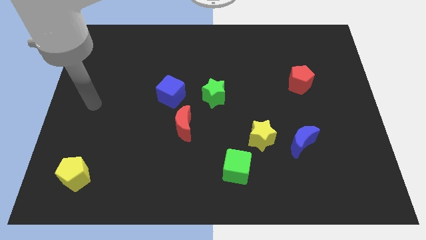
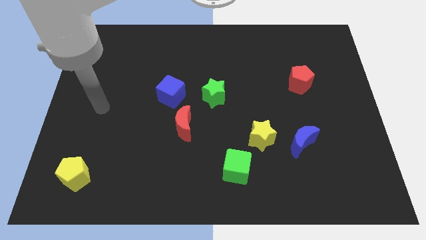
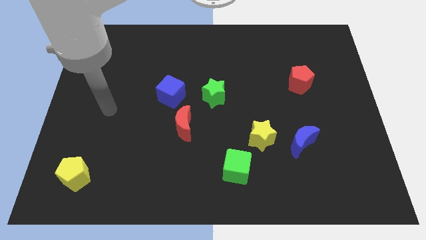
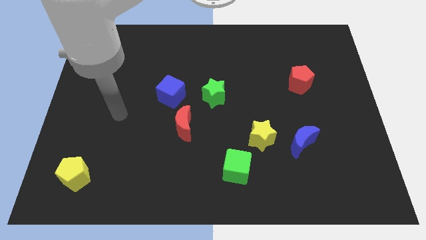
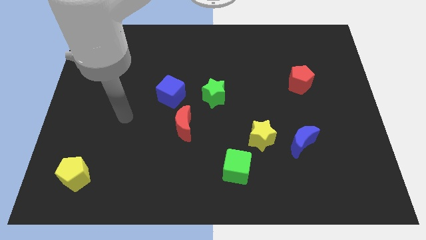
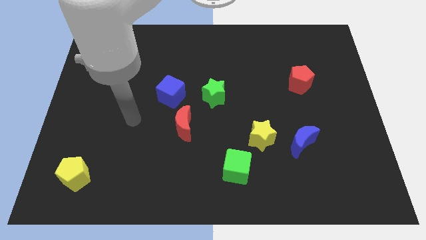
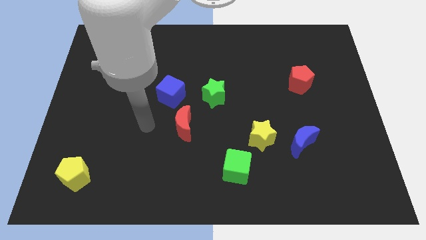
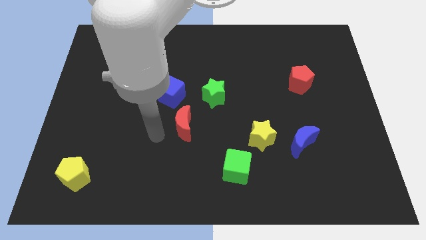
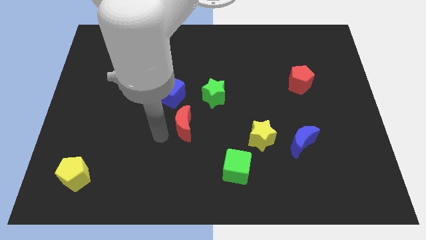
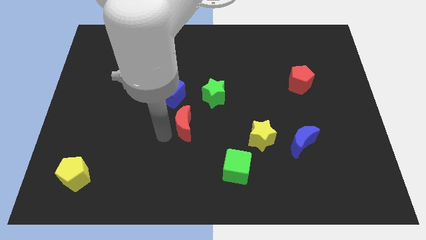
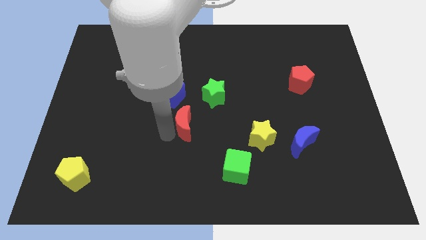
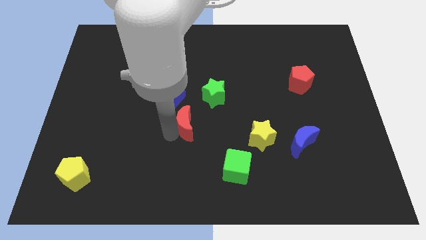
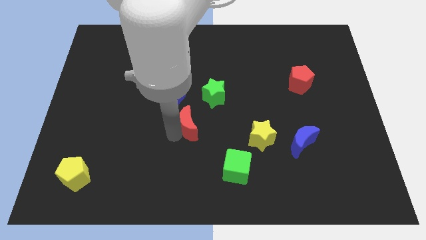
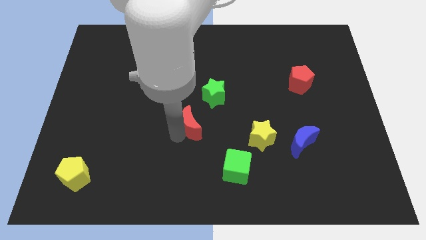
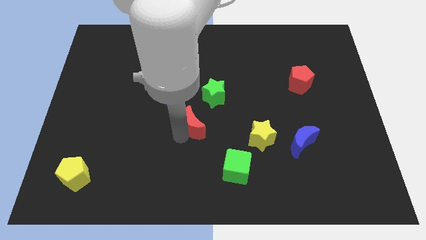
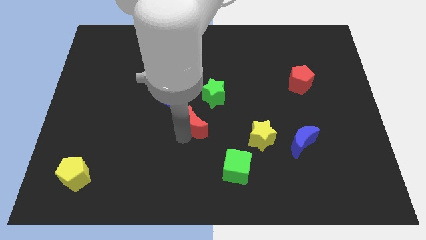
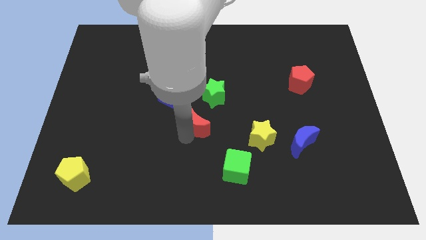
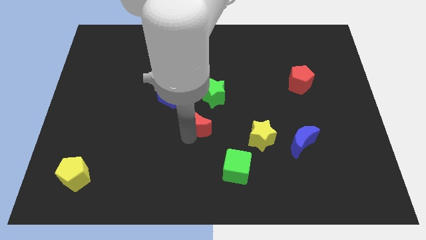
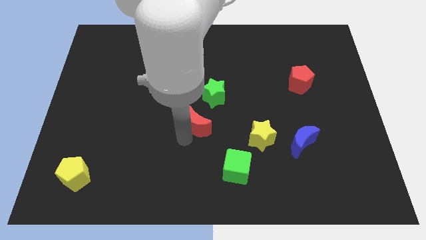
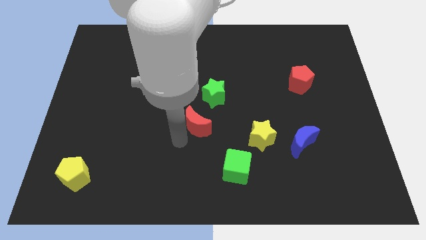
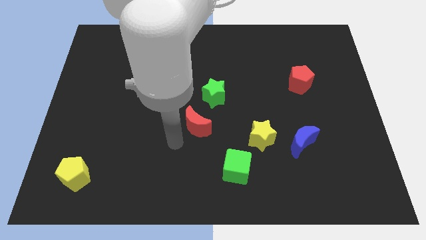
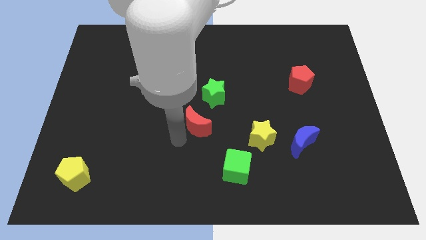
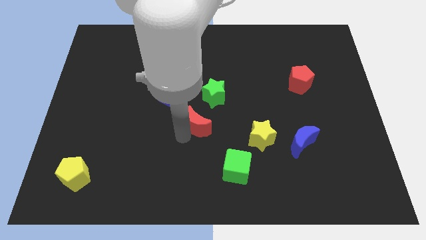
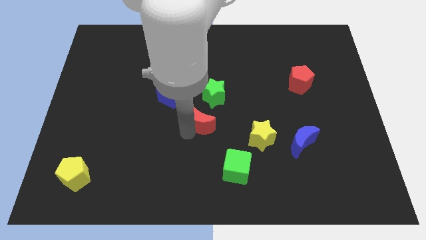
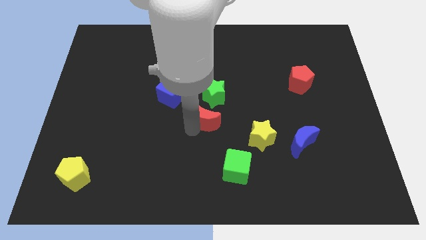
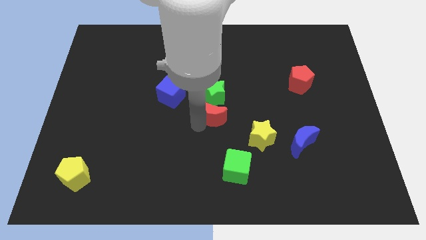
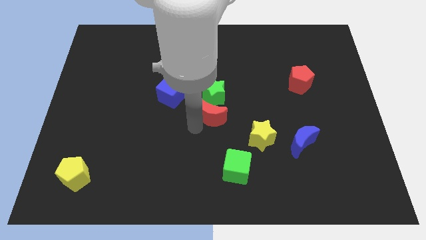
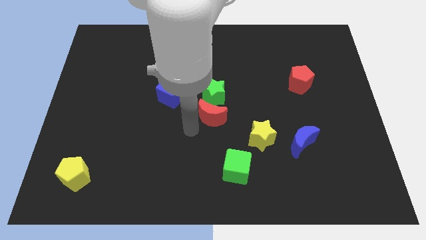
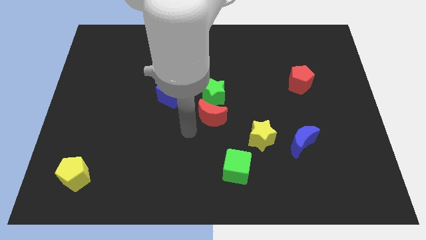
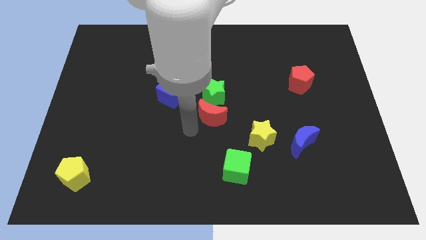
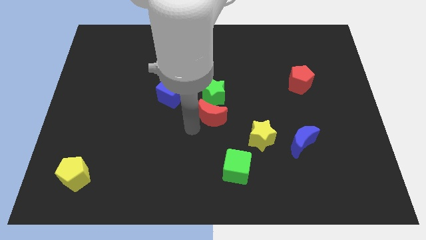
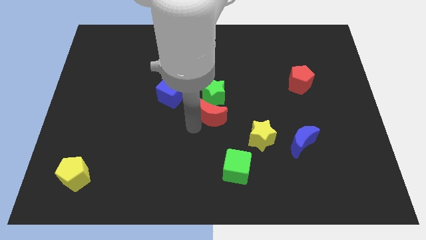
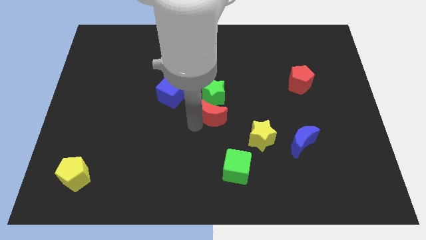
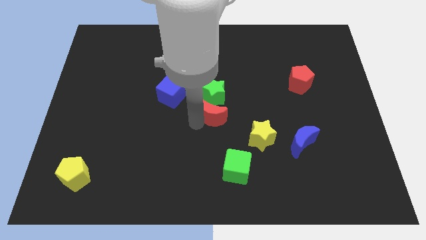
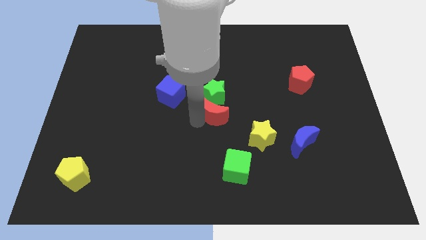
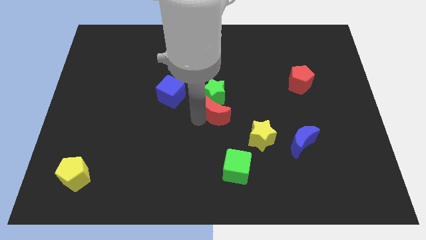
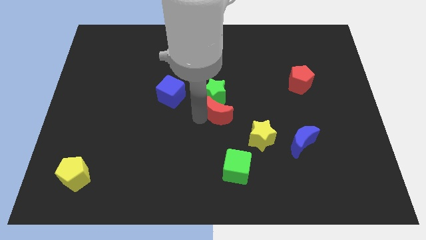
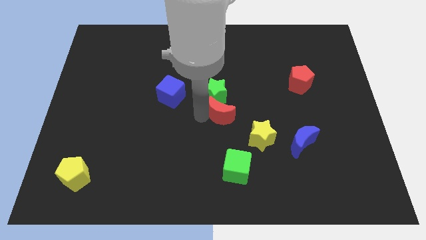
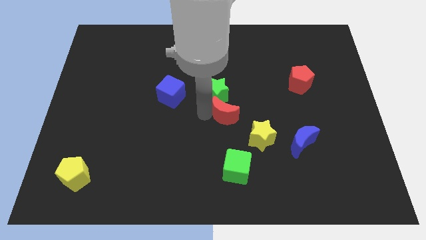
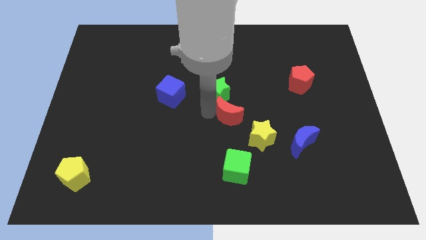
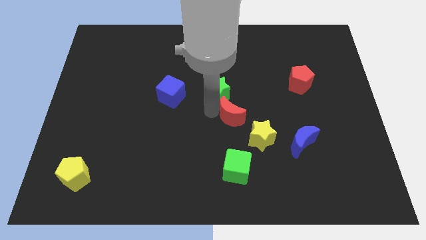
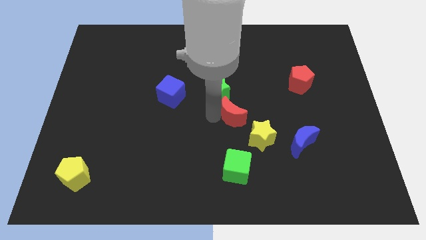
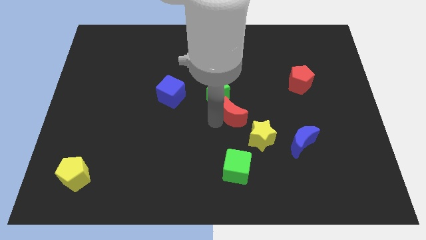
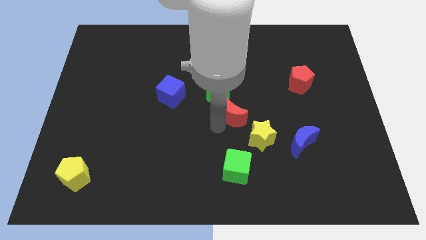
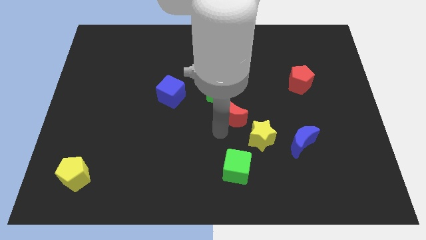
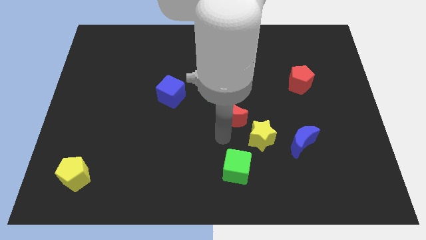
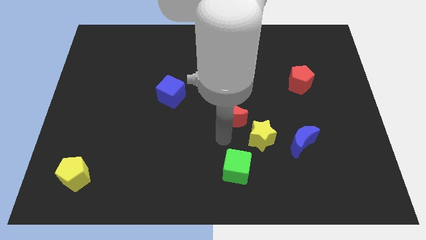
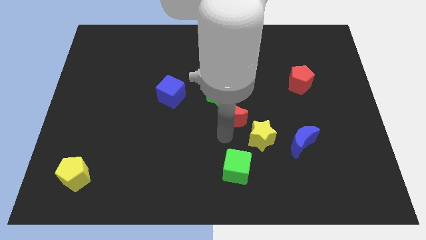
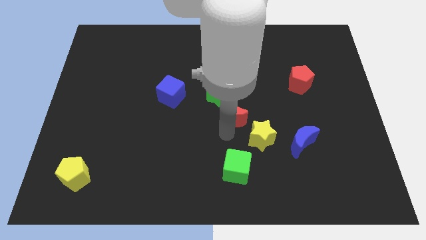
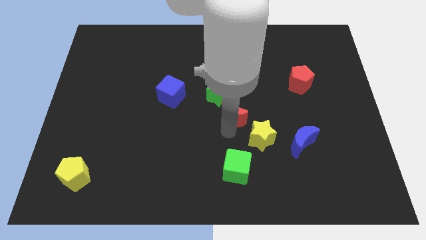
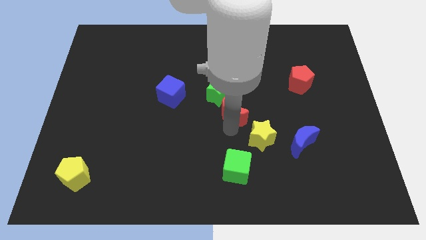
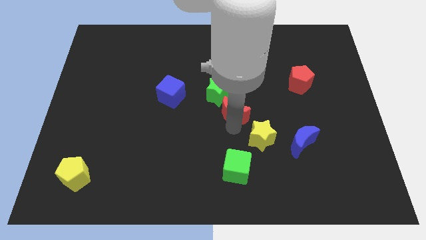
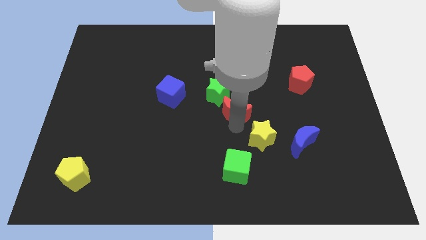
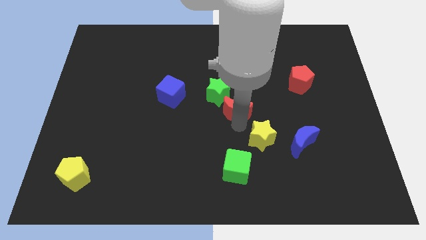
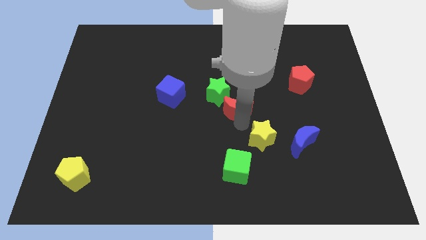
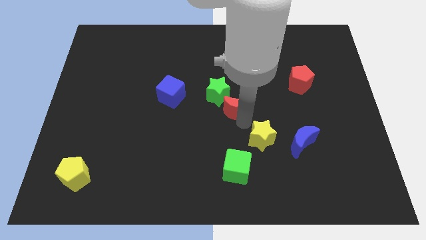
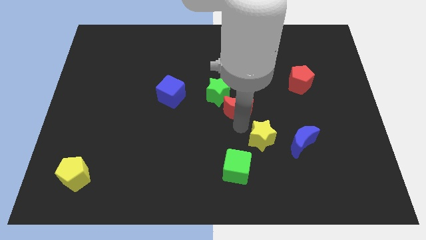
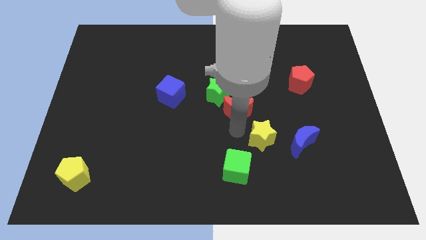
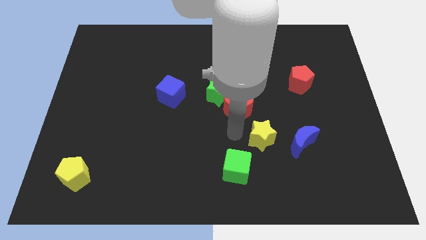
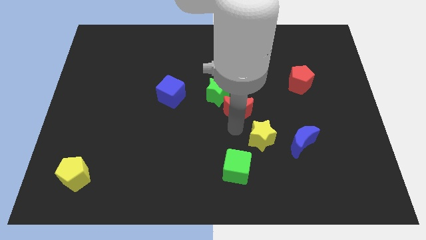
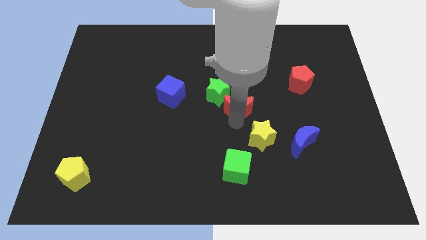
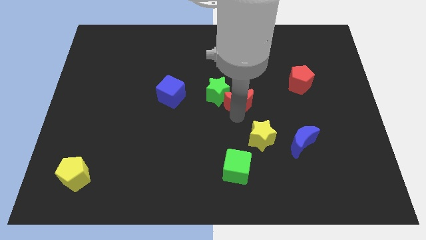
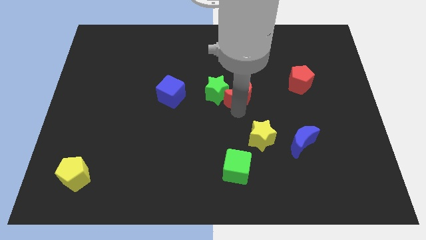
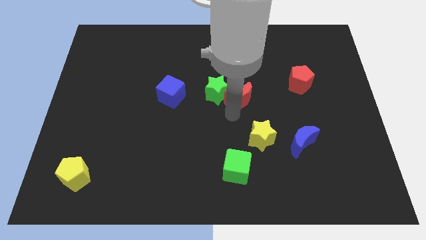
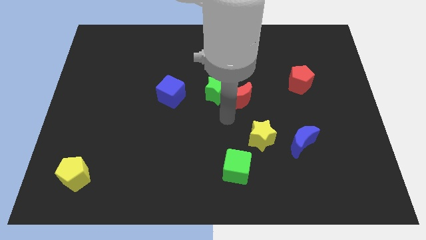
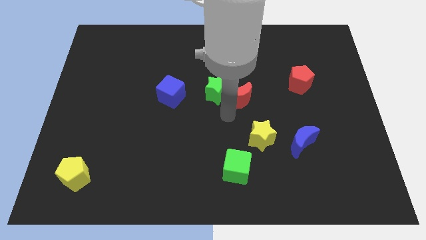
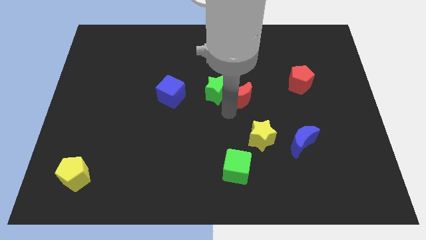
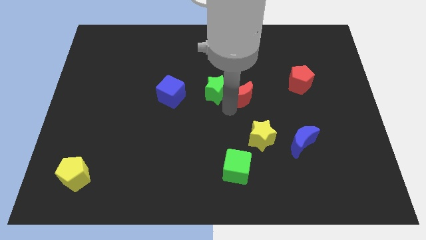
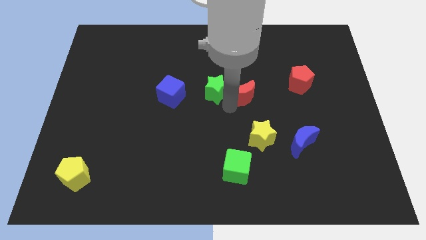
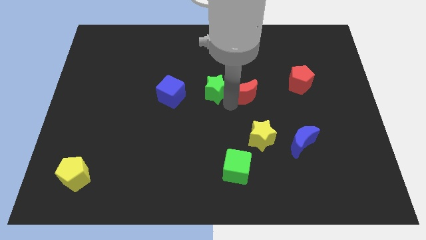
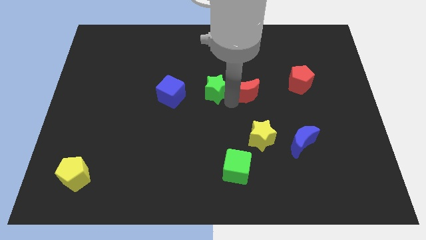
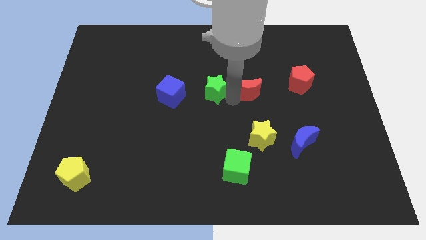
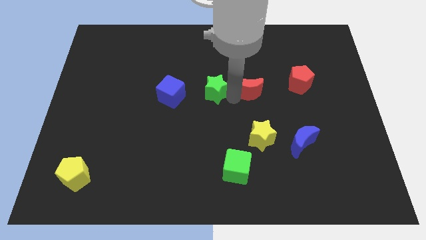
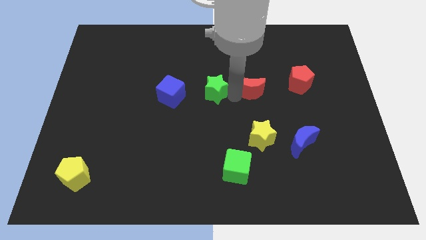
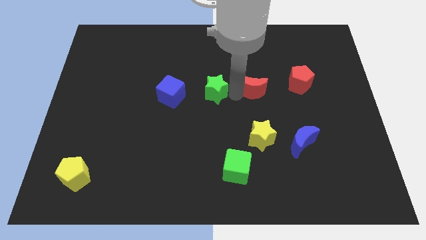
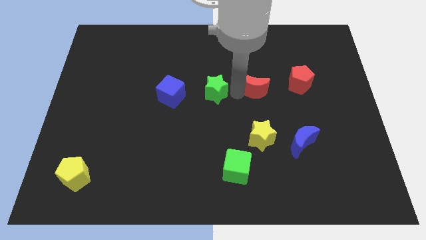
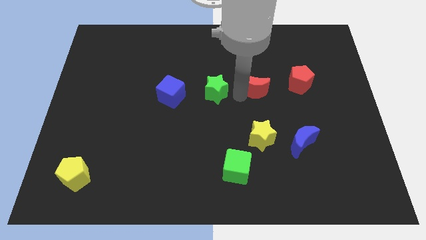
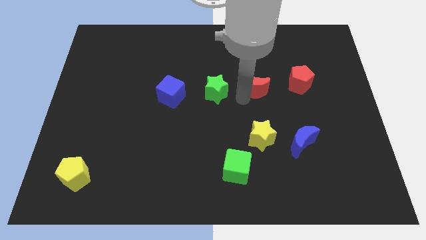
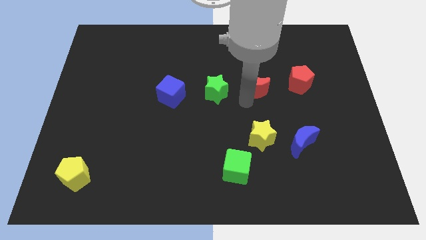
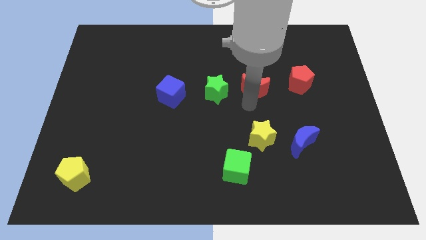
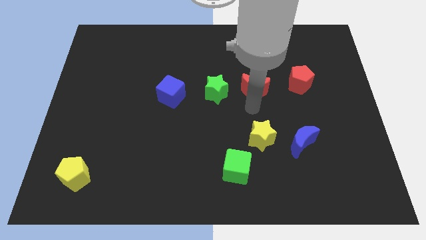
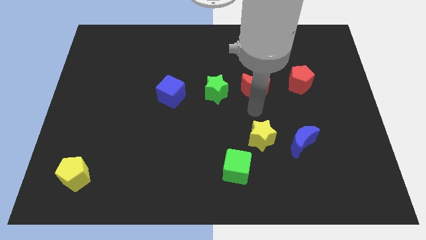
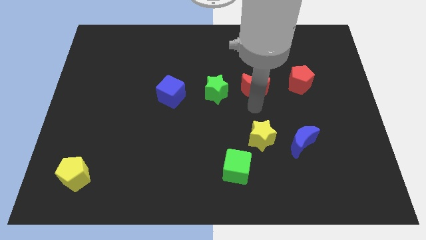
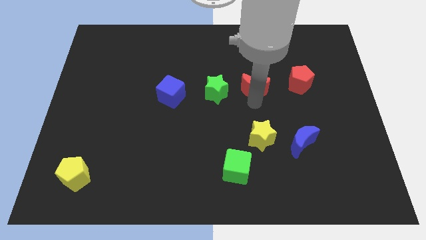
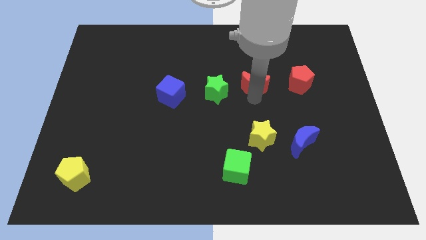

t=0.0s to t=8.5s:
slide the red moon diagonally up and right
